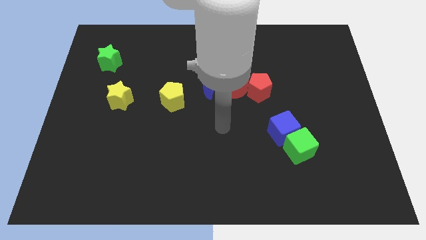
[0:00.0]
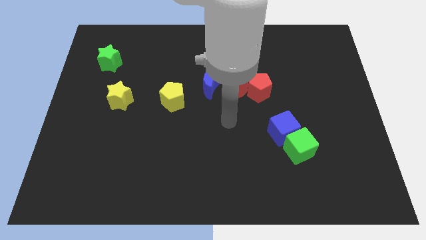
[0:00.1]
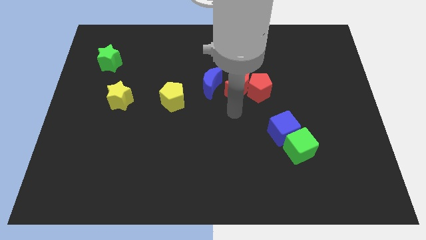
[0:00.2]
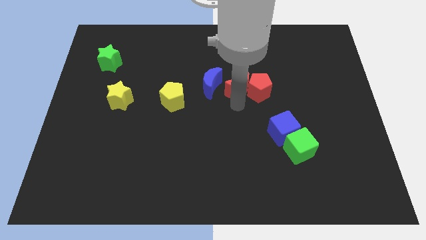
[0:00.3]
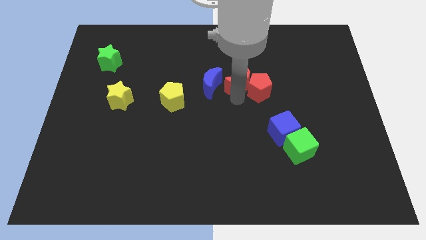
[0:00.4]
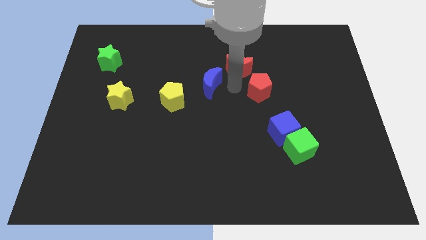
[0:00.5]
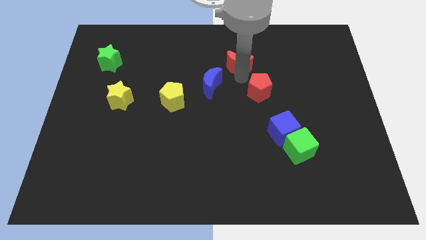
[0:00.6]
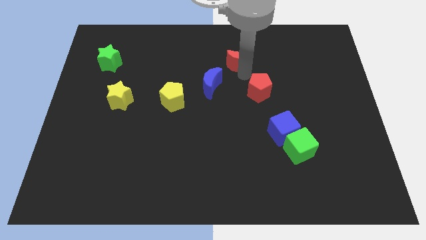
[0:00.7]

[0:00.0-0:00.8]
move the red pentagon away from the red moon

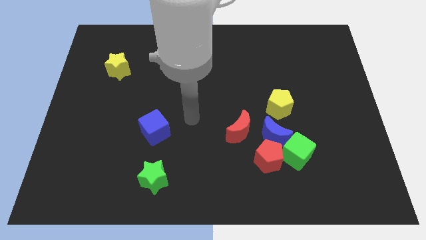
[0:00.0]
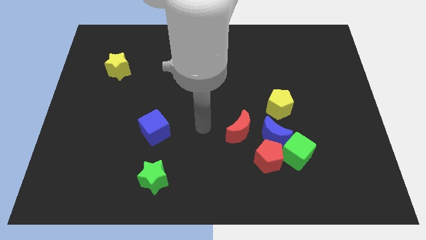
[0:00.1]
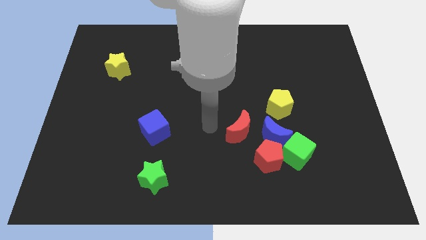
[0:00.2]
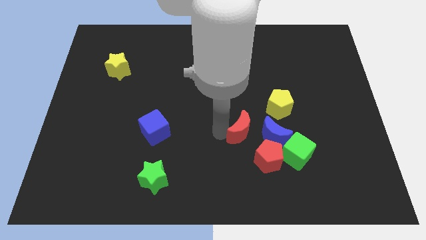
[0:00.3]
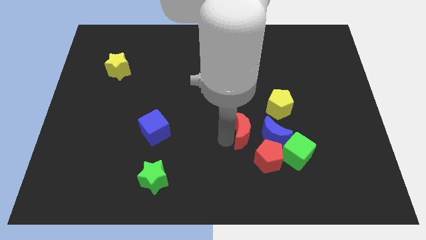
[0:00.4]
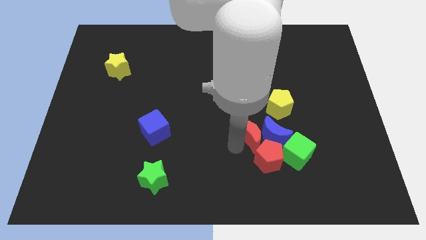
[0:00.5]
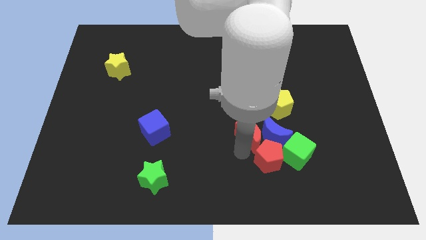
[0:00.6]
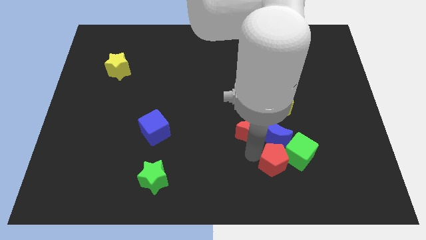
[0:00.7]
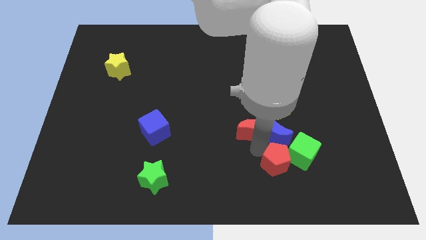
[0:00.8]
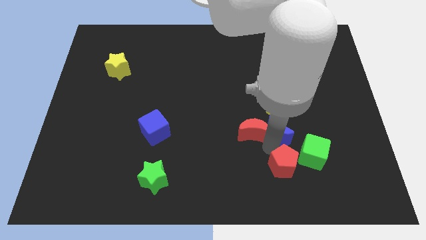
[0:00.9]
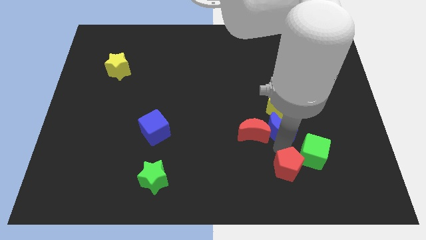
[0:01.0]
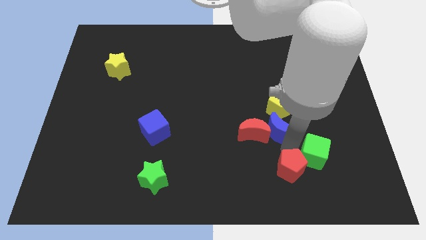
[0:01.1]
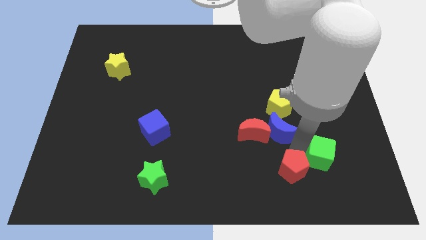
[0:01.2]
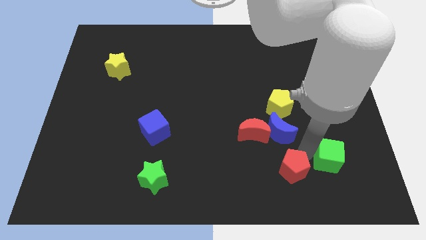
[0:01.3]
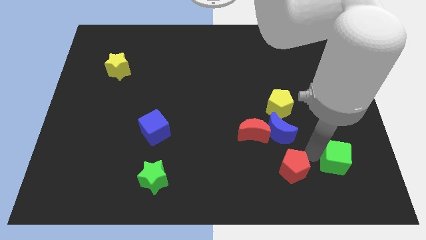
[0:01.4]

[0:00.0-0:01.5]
move the green cube away from the red pentagon and blue moon

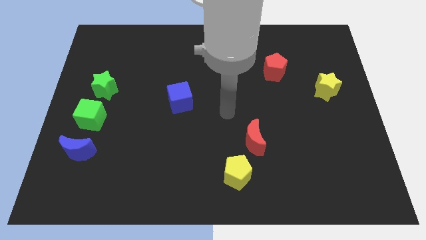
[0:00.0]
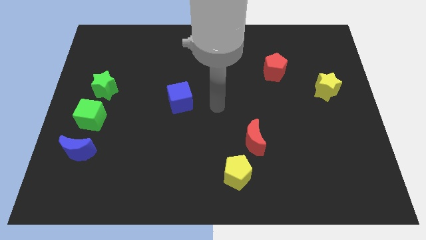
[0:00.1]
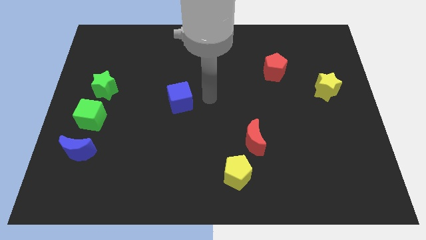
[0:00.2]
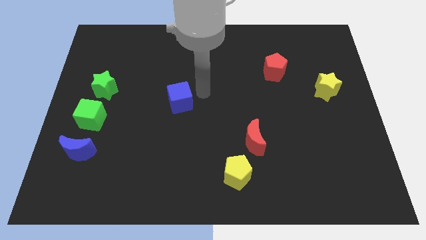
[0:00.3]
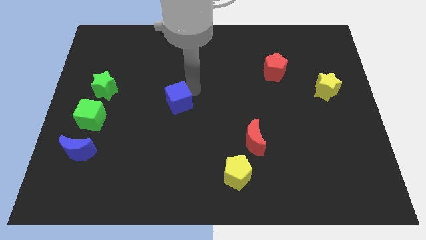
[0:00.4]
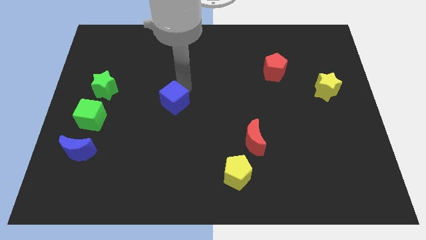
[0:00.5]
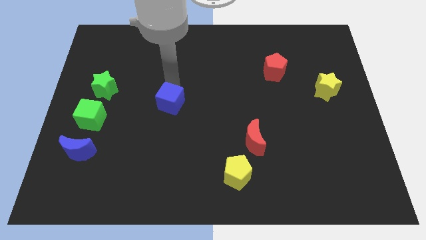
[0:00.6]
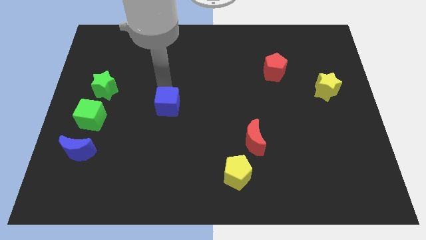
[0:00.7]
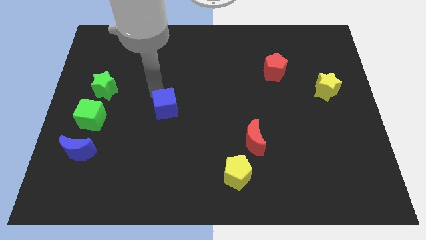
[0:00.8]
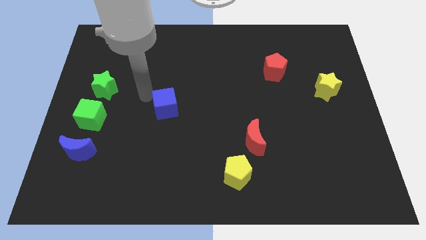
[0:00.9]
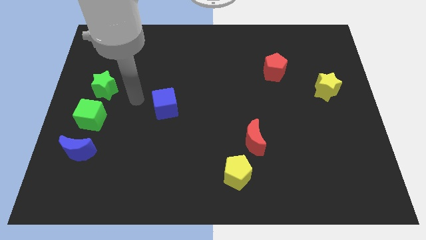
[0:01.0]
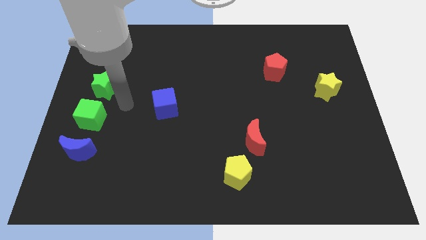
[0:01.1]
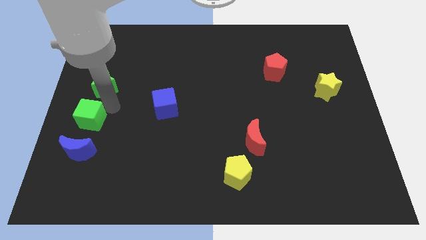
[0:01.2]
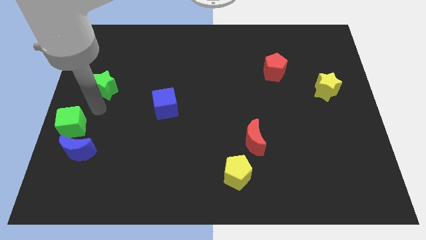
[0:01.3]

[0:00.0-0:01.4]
separate the green star from the green cube

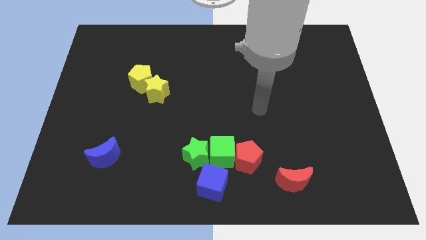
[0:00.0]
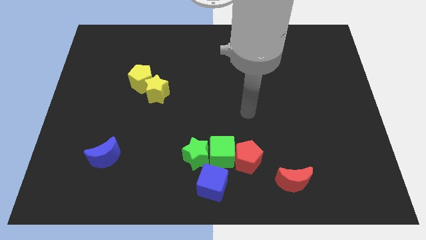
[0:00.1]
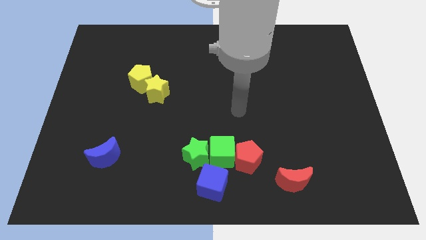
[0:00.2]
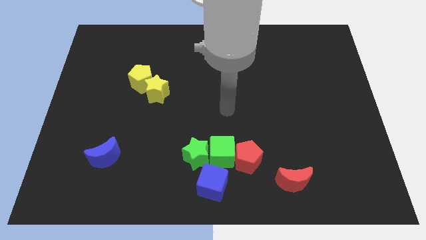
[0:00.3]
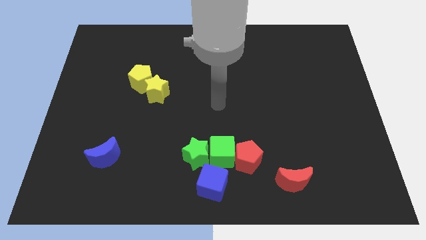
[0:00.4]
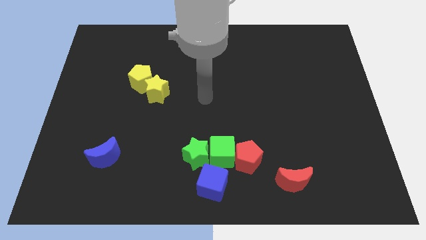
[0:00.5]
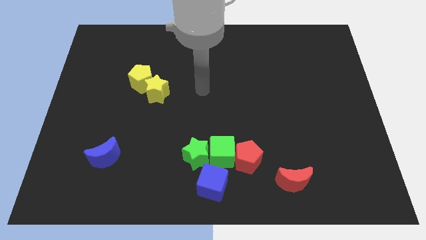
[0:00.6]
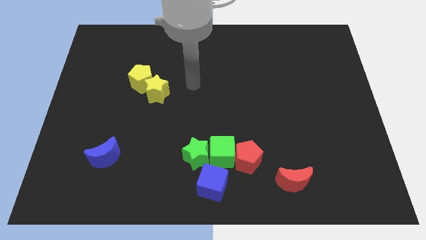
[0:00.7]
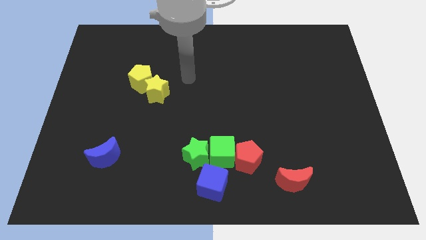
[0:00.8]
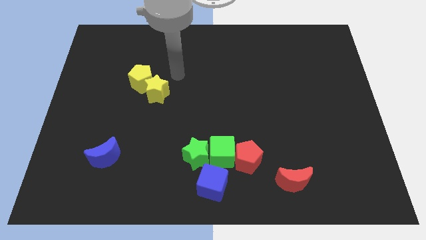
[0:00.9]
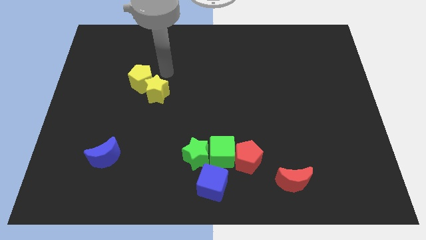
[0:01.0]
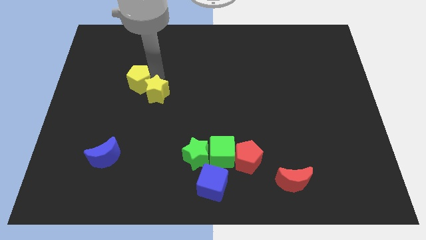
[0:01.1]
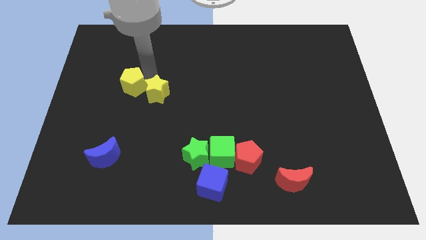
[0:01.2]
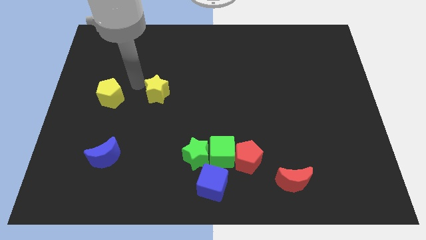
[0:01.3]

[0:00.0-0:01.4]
pull the yellow star apart from the yellow pentagon

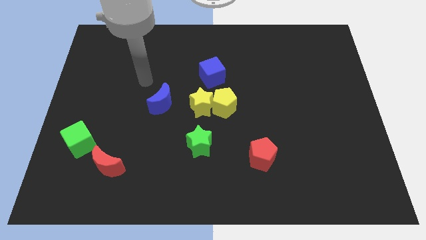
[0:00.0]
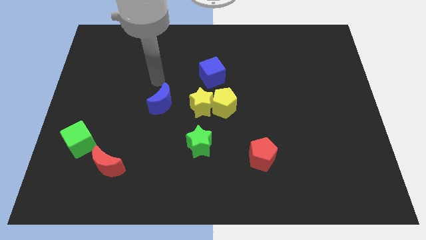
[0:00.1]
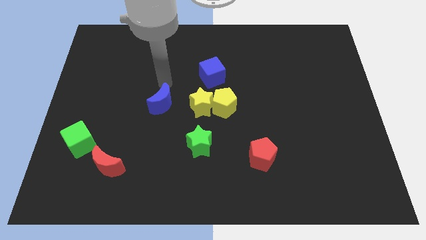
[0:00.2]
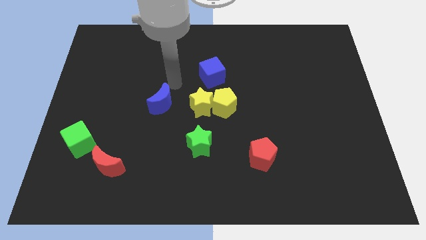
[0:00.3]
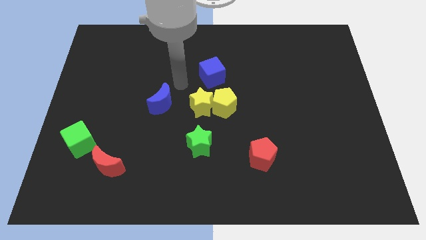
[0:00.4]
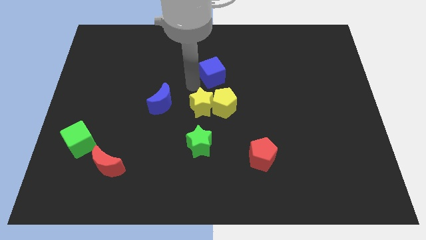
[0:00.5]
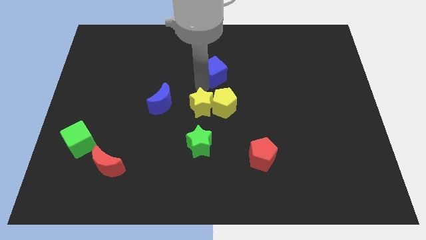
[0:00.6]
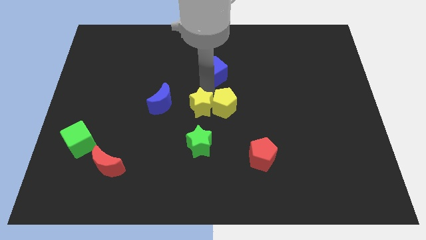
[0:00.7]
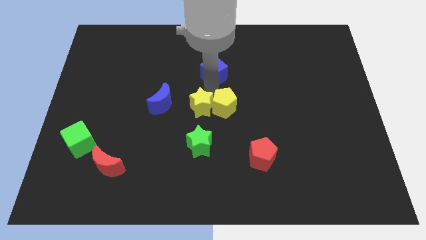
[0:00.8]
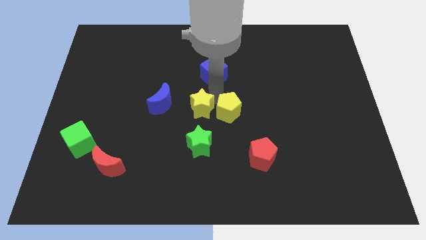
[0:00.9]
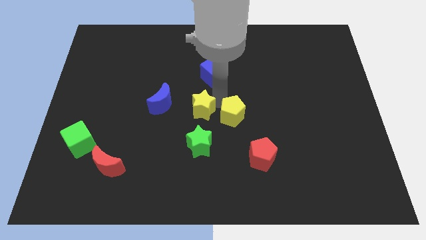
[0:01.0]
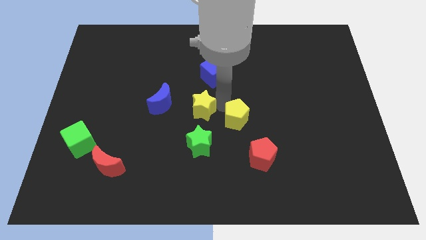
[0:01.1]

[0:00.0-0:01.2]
move the yellow pentagon away from the yellow star and blue cube

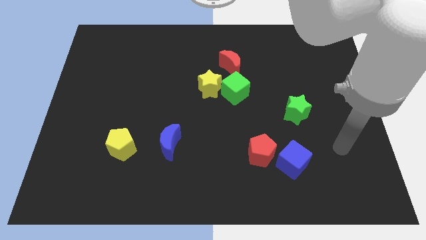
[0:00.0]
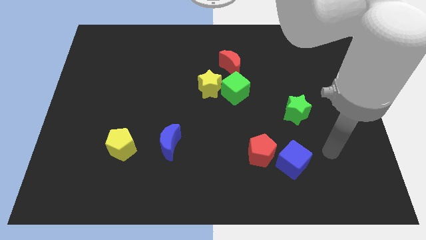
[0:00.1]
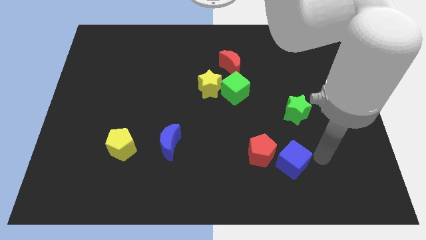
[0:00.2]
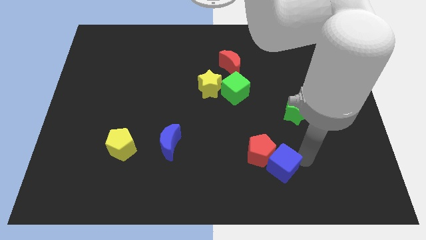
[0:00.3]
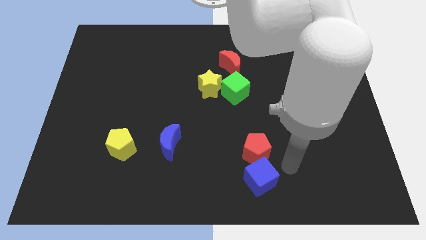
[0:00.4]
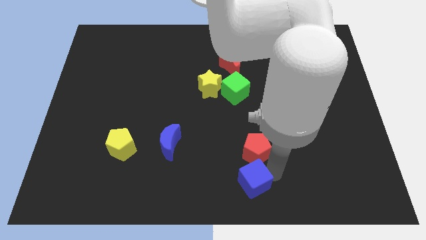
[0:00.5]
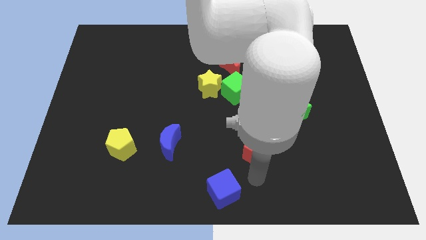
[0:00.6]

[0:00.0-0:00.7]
separate the red pentagon from the blue cube

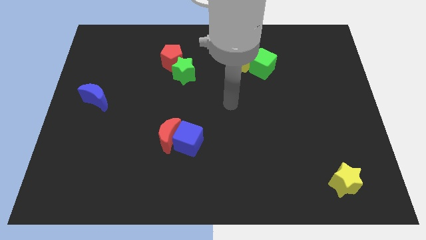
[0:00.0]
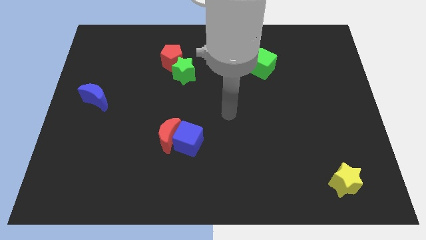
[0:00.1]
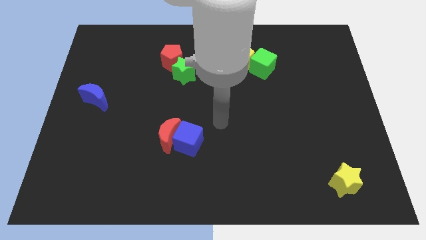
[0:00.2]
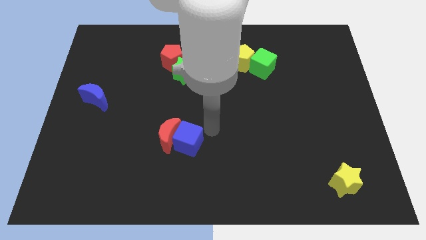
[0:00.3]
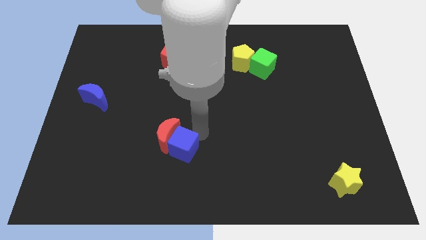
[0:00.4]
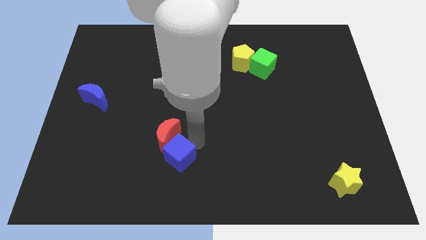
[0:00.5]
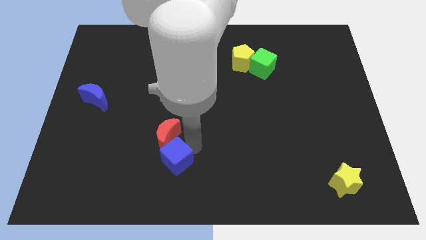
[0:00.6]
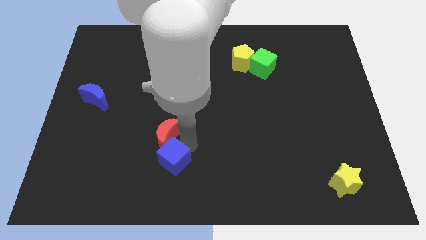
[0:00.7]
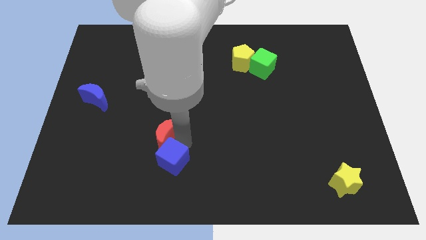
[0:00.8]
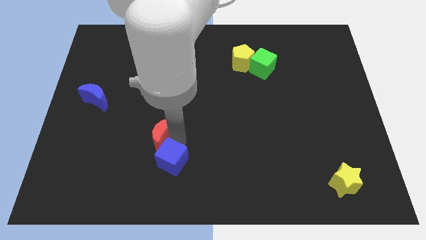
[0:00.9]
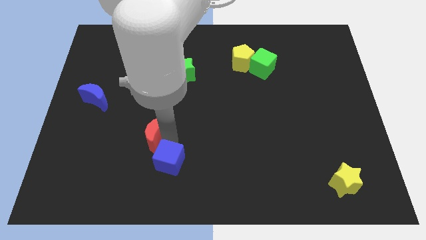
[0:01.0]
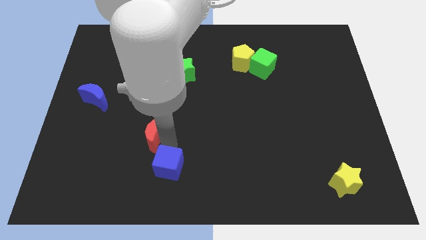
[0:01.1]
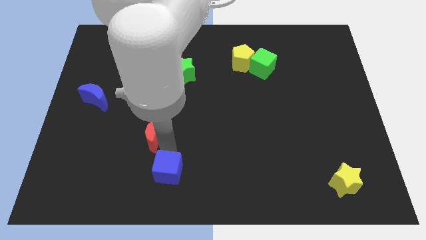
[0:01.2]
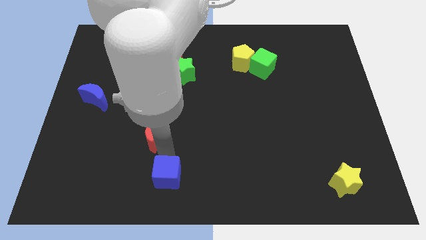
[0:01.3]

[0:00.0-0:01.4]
move the red moon away from the blue cube

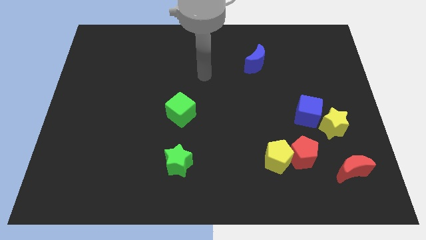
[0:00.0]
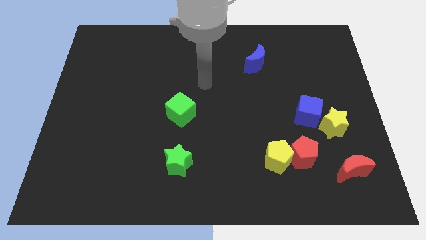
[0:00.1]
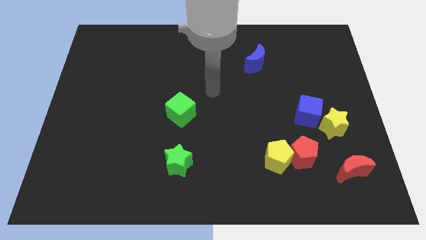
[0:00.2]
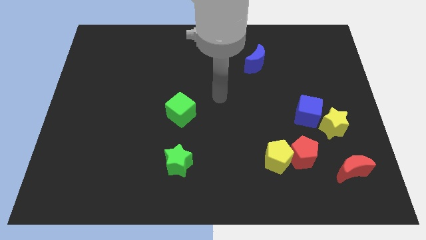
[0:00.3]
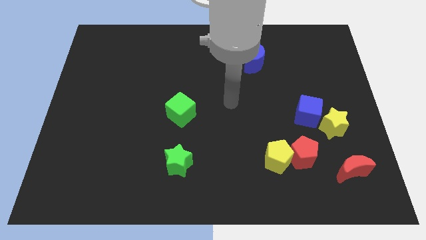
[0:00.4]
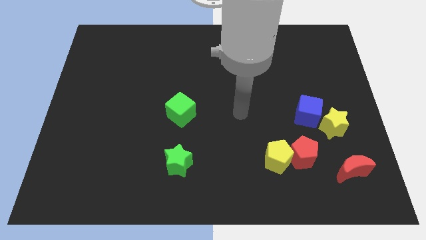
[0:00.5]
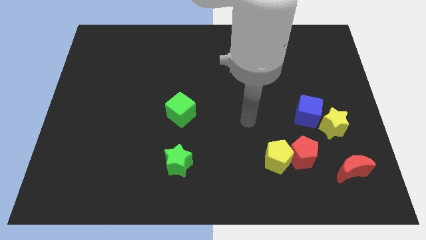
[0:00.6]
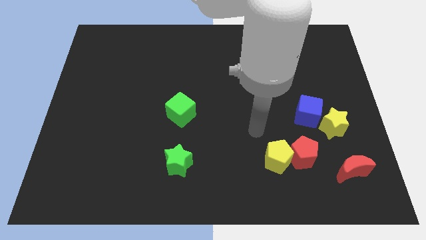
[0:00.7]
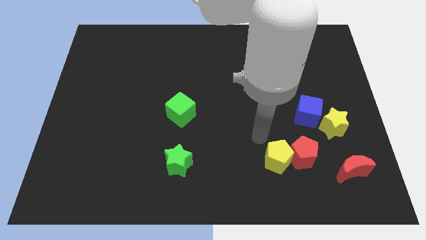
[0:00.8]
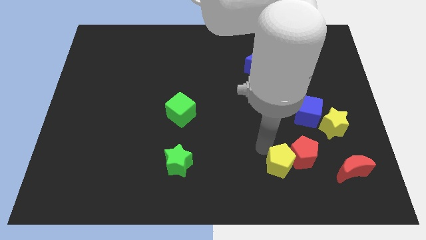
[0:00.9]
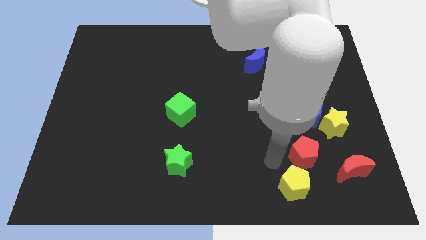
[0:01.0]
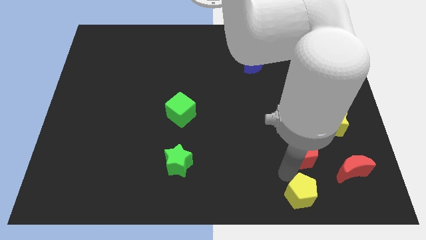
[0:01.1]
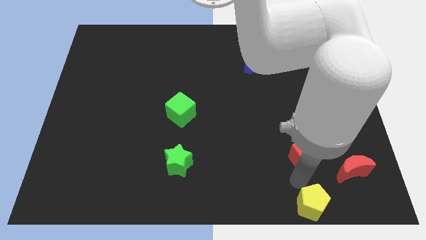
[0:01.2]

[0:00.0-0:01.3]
move the red pentagon away from the yellow pentagon
